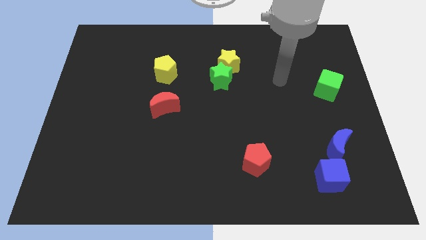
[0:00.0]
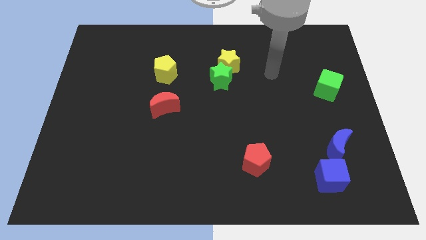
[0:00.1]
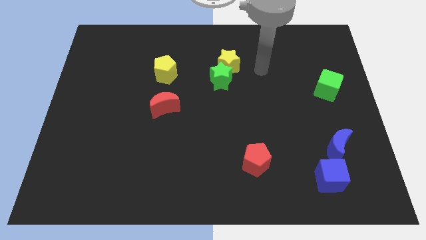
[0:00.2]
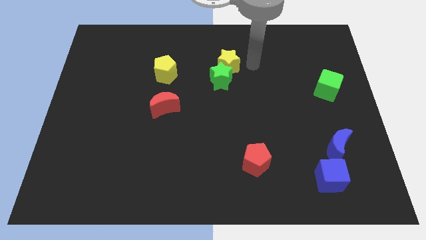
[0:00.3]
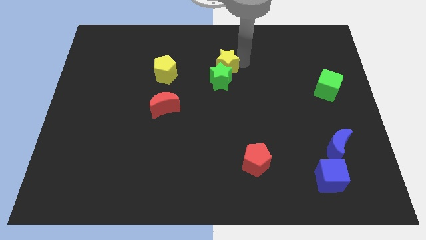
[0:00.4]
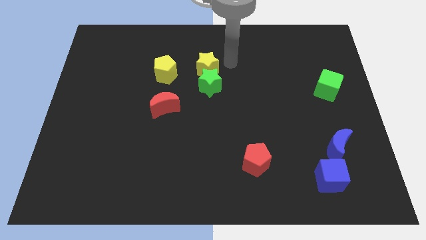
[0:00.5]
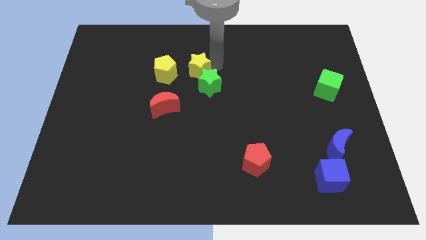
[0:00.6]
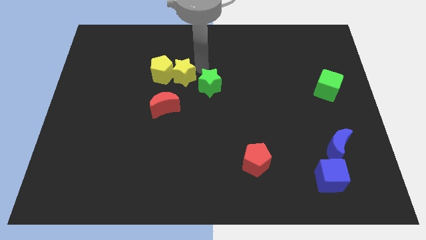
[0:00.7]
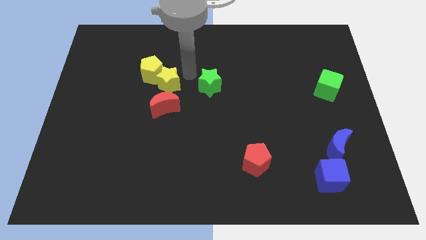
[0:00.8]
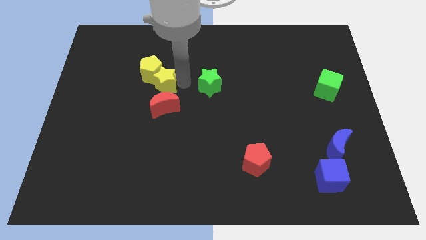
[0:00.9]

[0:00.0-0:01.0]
pull the green star apart from the yellow star

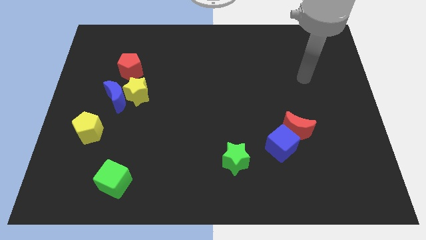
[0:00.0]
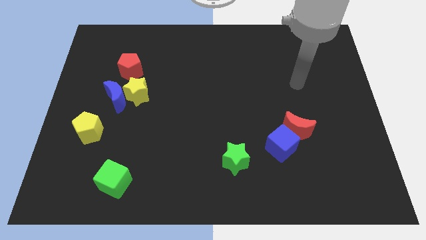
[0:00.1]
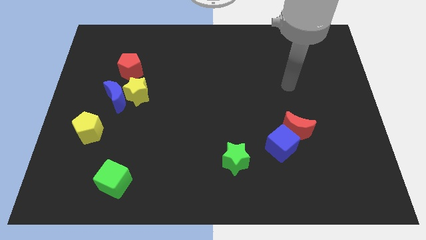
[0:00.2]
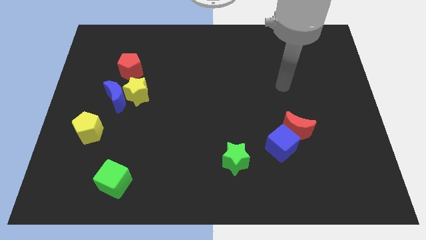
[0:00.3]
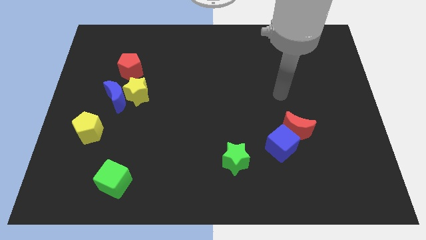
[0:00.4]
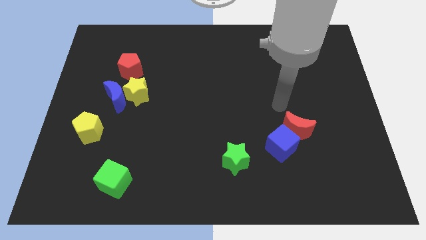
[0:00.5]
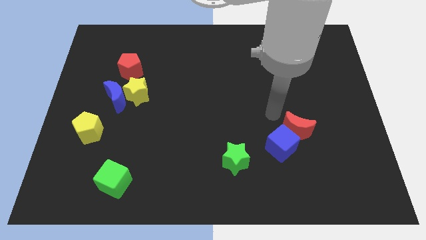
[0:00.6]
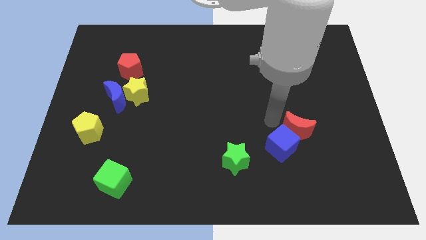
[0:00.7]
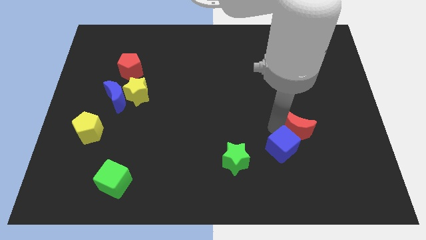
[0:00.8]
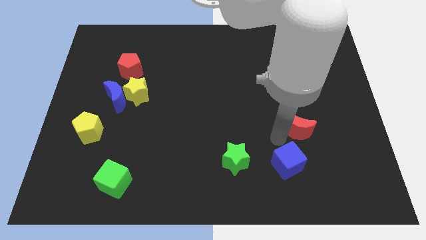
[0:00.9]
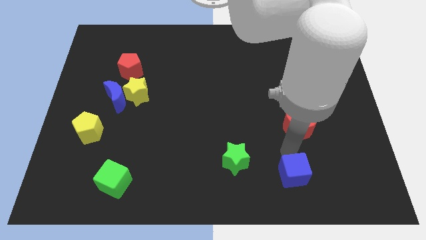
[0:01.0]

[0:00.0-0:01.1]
move the red moon away from the blue cube

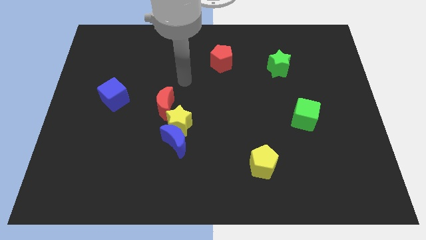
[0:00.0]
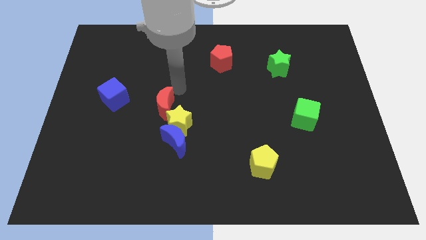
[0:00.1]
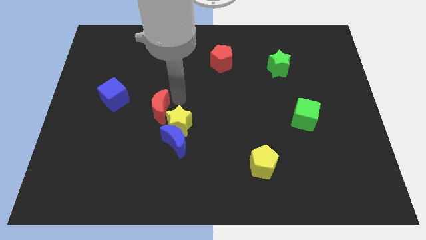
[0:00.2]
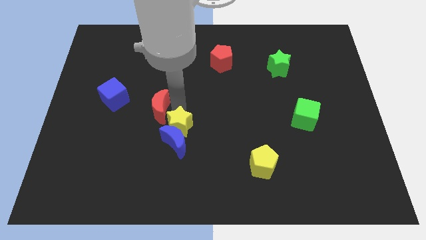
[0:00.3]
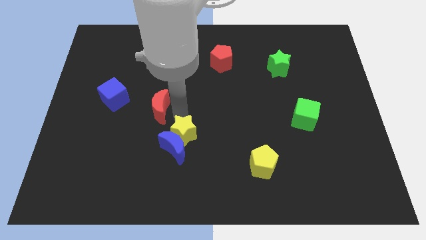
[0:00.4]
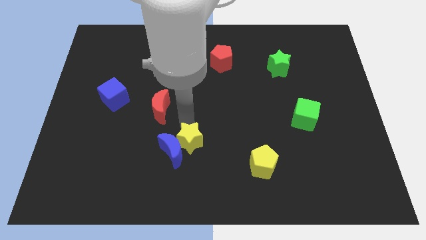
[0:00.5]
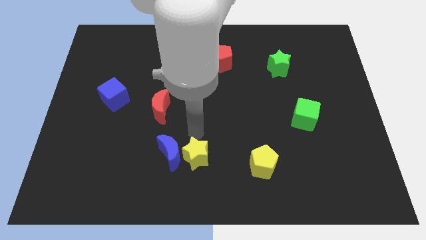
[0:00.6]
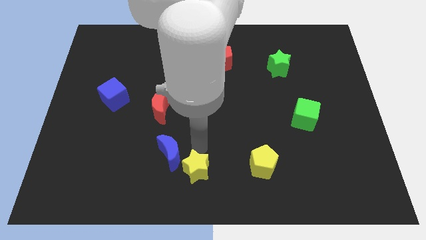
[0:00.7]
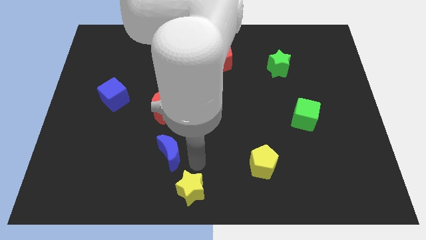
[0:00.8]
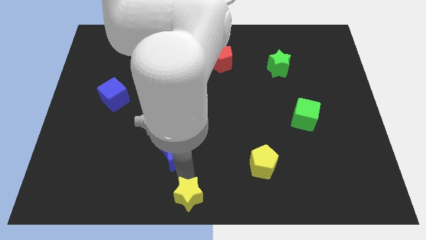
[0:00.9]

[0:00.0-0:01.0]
pull the blue moon apart from the yellow star

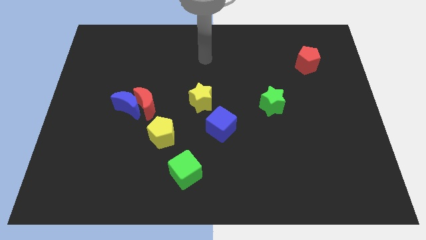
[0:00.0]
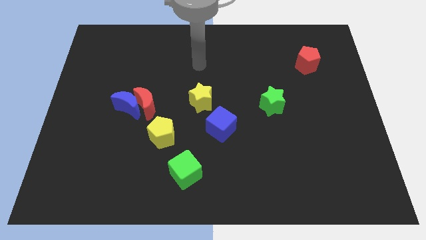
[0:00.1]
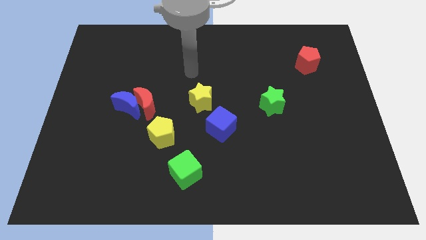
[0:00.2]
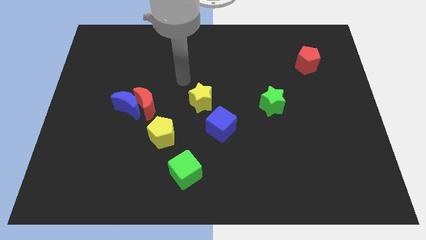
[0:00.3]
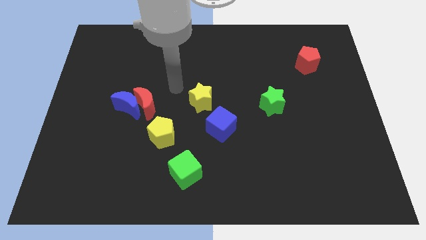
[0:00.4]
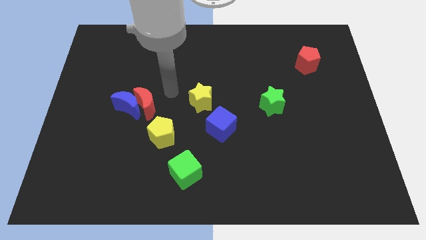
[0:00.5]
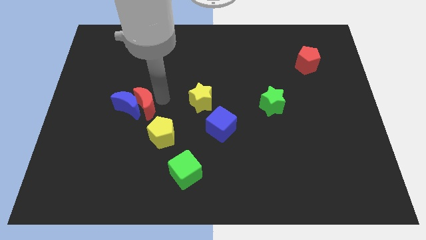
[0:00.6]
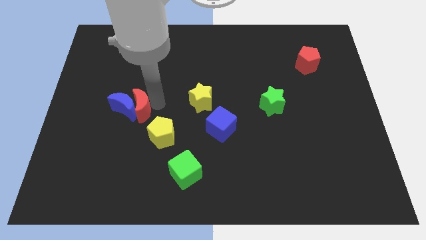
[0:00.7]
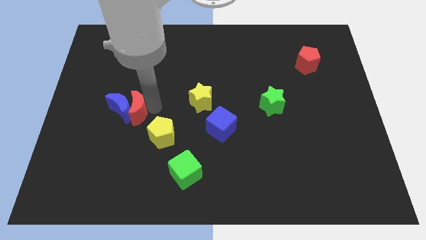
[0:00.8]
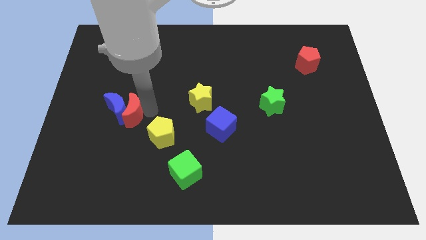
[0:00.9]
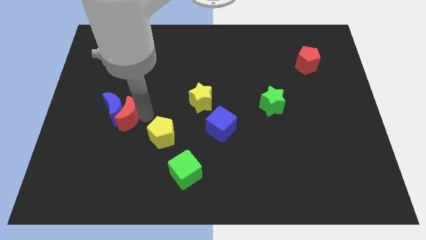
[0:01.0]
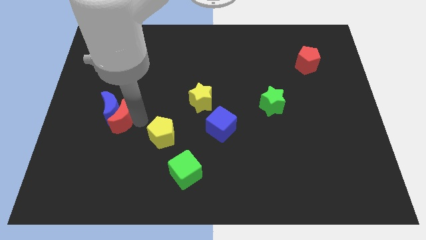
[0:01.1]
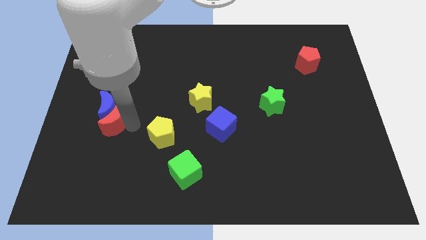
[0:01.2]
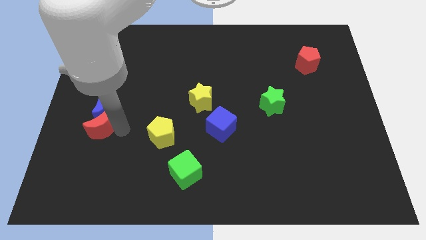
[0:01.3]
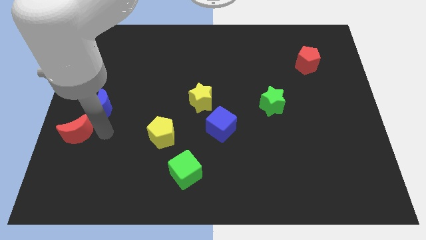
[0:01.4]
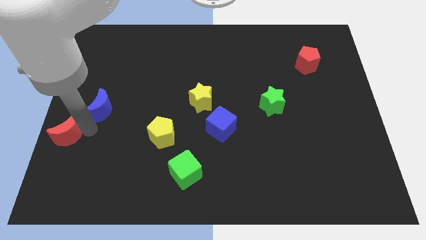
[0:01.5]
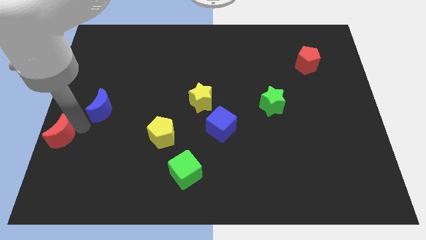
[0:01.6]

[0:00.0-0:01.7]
separate the blue moon from the red moon

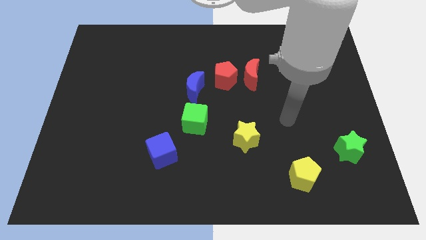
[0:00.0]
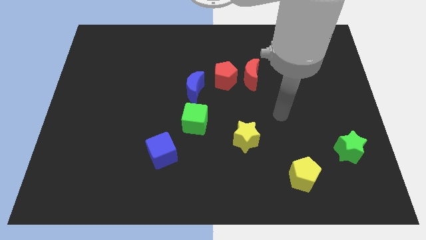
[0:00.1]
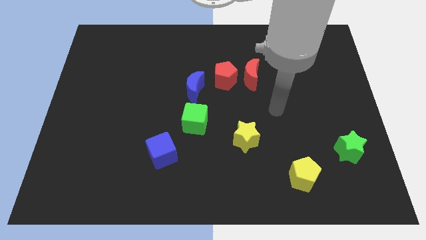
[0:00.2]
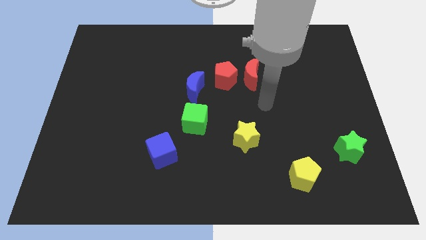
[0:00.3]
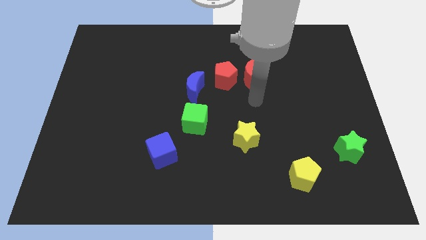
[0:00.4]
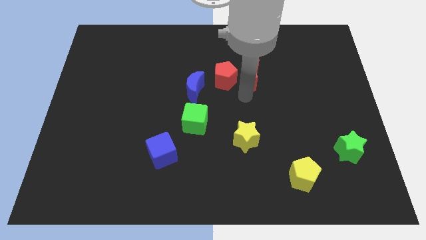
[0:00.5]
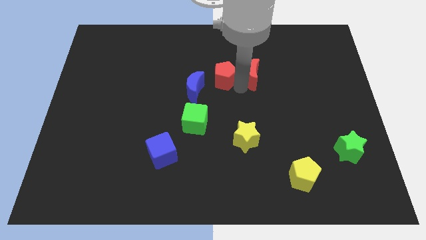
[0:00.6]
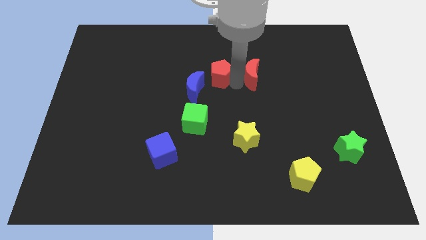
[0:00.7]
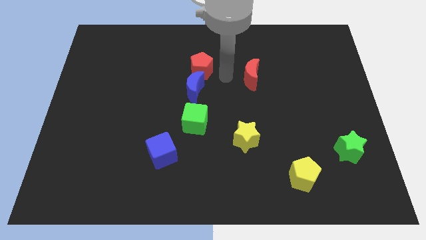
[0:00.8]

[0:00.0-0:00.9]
separate the red moon from the red pentagon

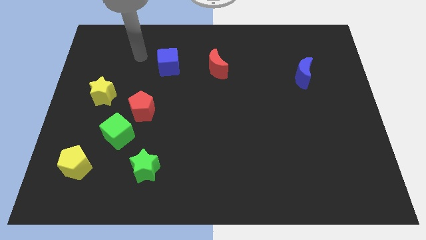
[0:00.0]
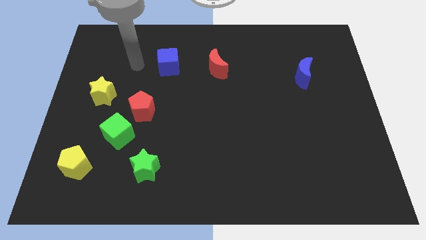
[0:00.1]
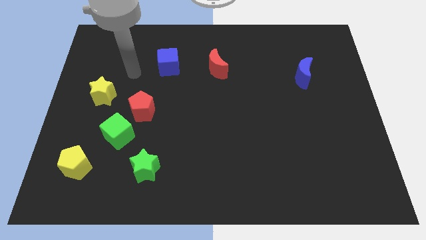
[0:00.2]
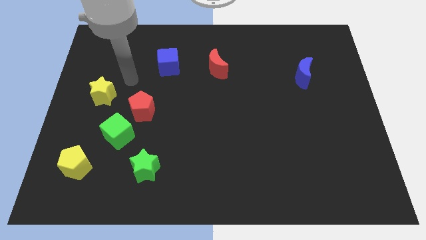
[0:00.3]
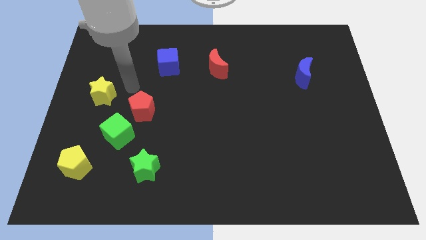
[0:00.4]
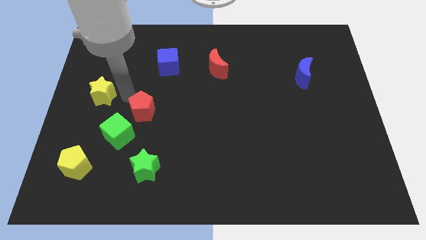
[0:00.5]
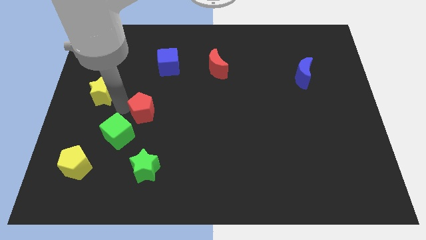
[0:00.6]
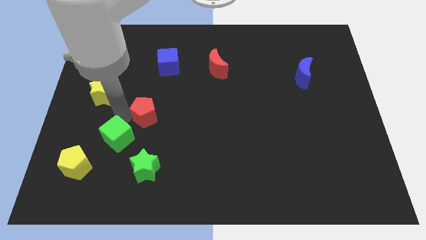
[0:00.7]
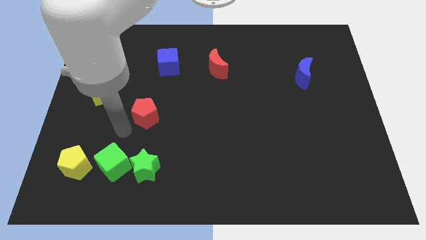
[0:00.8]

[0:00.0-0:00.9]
pull the red pentagon apart from the green cube

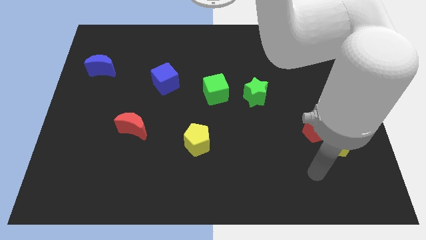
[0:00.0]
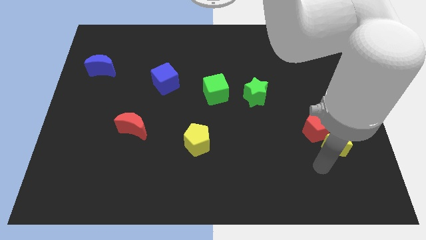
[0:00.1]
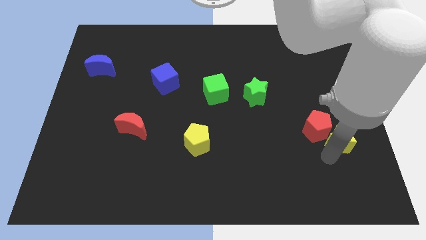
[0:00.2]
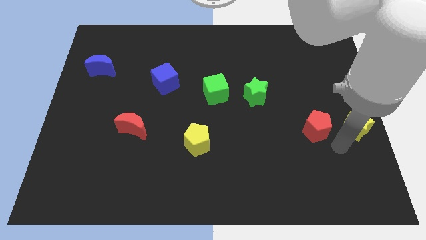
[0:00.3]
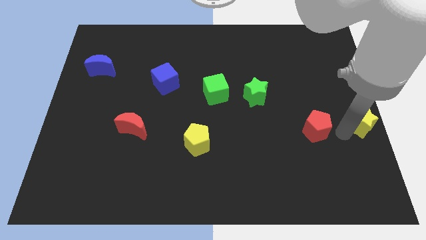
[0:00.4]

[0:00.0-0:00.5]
pull the red pentagon apart from the yellow star

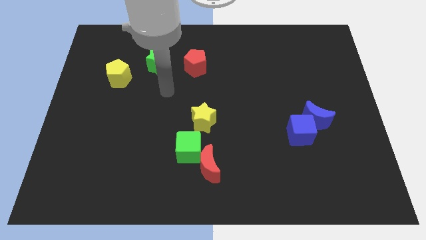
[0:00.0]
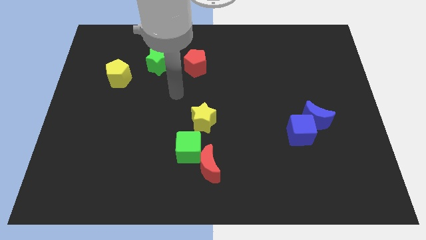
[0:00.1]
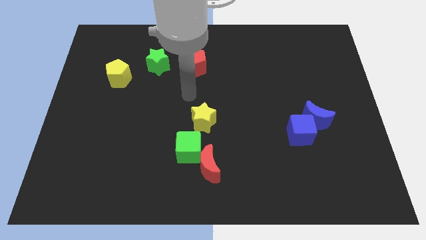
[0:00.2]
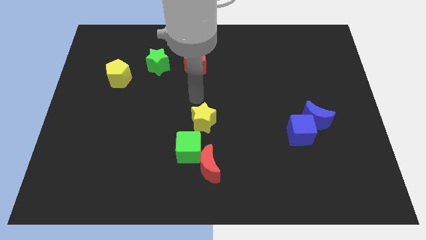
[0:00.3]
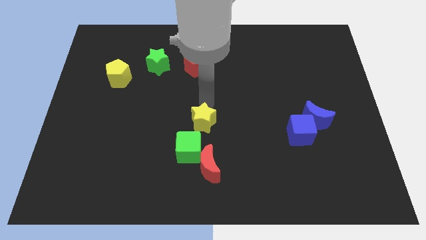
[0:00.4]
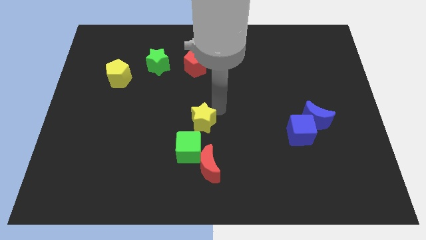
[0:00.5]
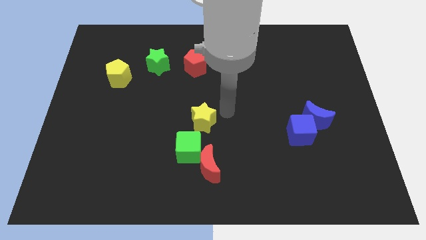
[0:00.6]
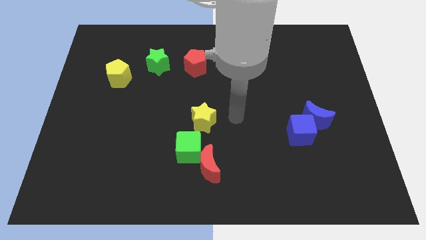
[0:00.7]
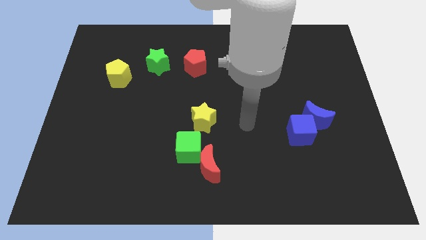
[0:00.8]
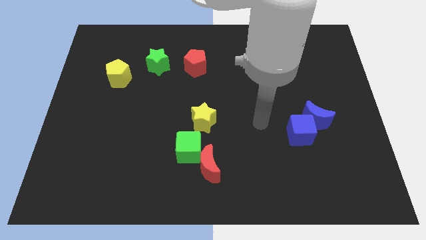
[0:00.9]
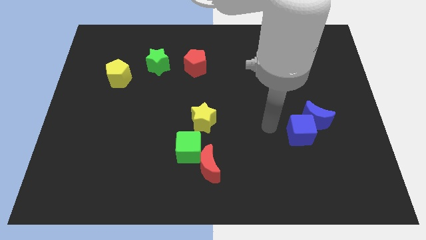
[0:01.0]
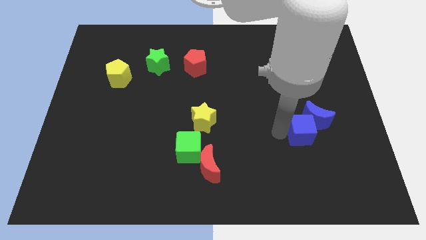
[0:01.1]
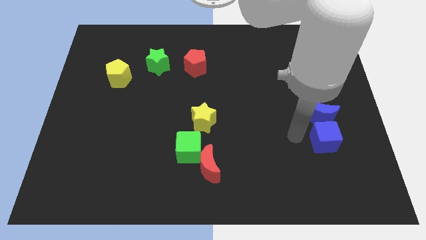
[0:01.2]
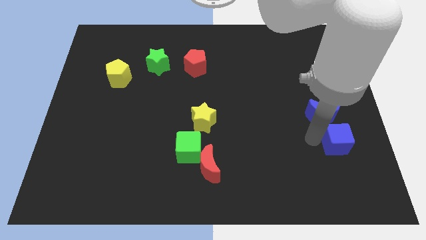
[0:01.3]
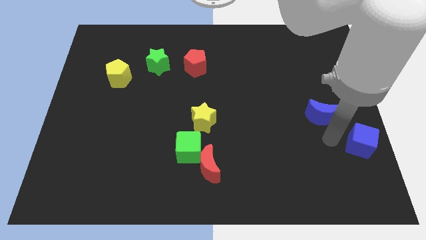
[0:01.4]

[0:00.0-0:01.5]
move the blue moon away from the blue cube

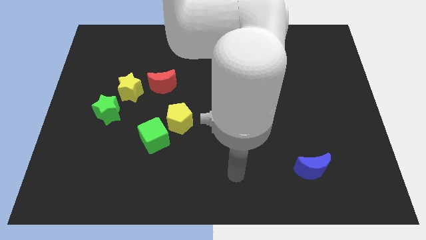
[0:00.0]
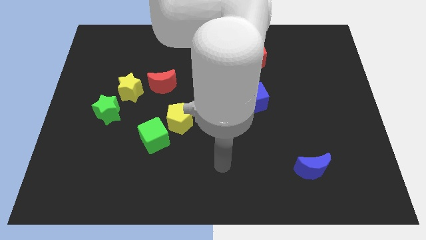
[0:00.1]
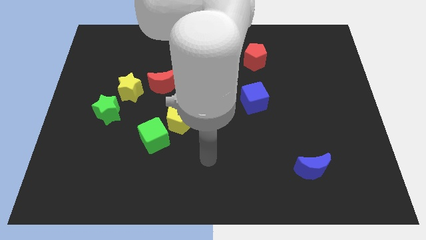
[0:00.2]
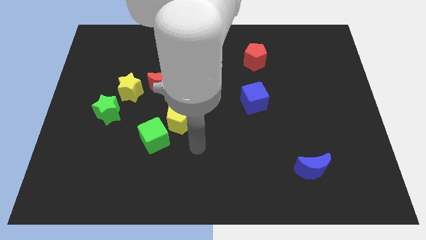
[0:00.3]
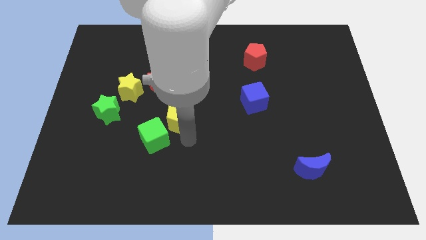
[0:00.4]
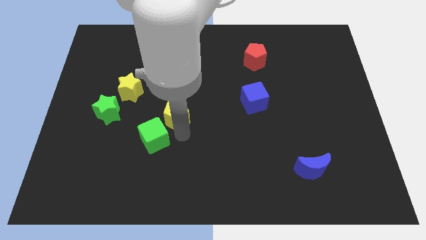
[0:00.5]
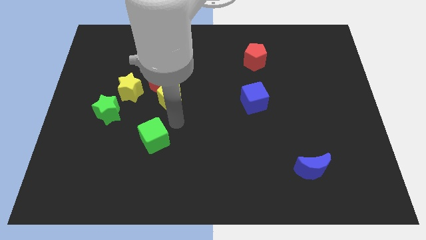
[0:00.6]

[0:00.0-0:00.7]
separate the green cube from the yellow pentagon
